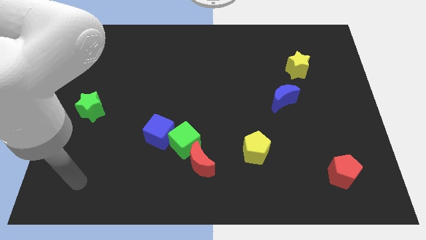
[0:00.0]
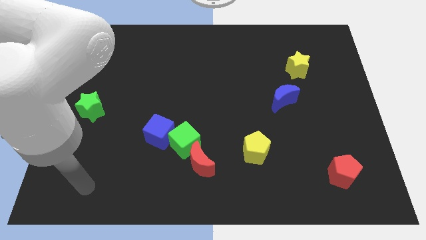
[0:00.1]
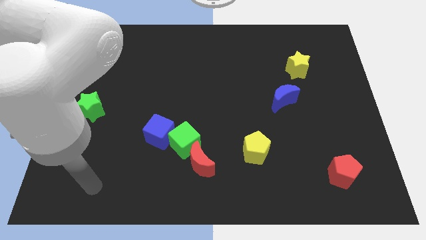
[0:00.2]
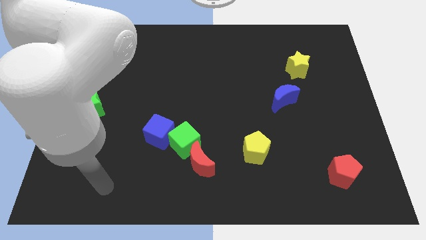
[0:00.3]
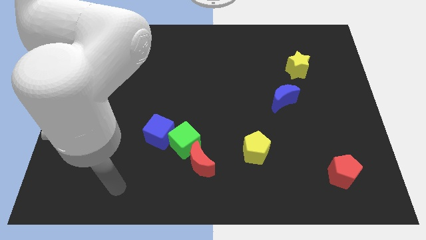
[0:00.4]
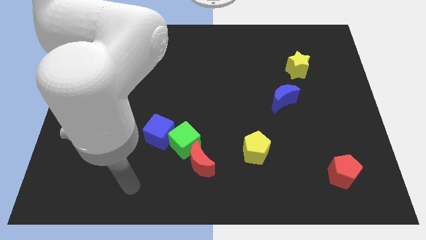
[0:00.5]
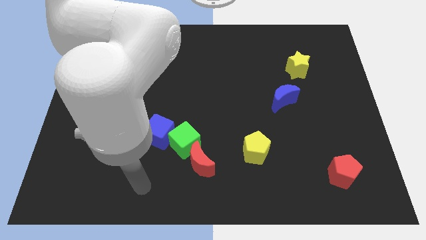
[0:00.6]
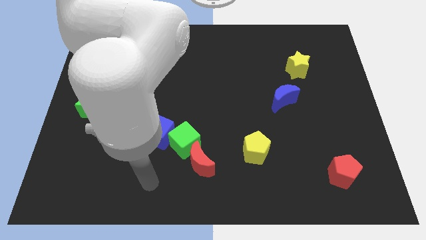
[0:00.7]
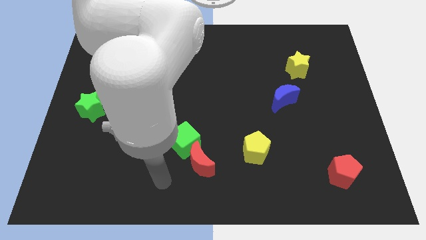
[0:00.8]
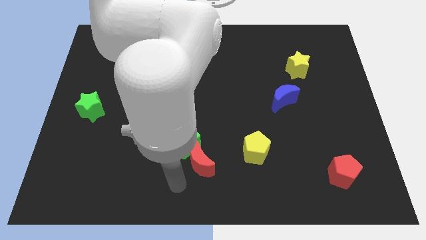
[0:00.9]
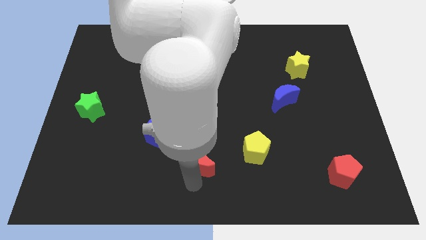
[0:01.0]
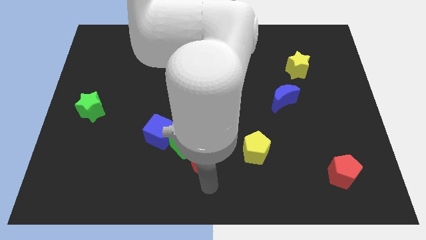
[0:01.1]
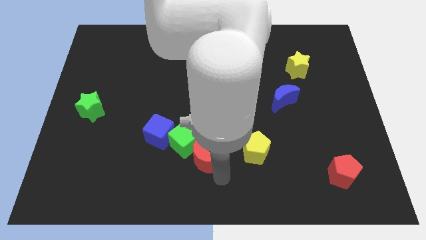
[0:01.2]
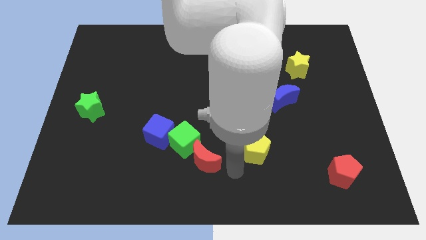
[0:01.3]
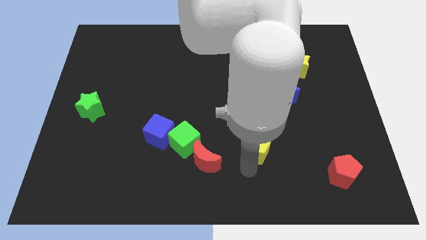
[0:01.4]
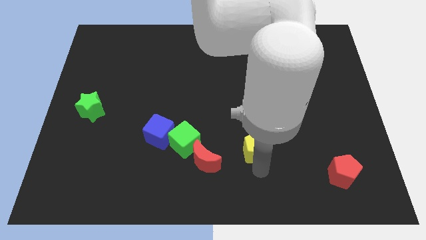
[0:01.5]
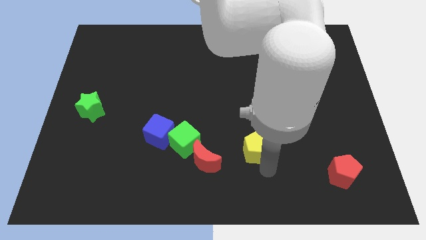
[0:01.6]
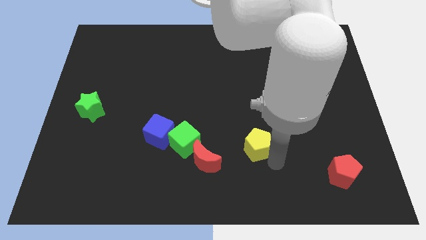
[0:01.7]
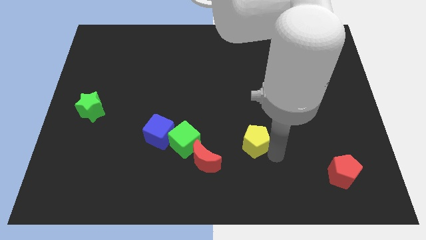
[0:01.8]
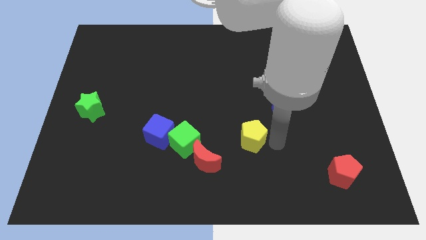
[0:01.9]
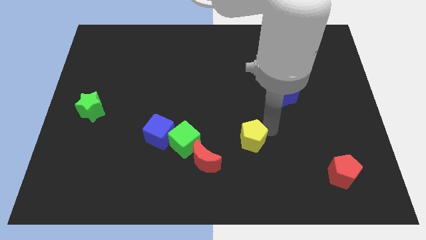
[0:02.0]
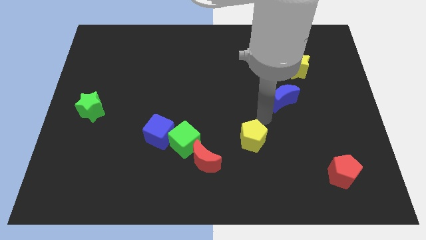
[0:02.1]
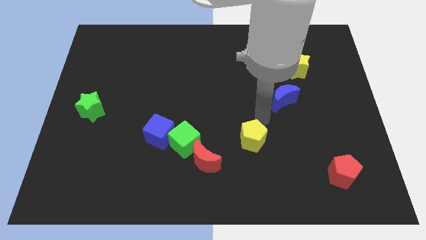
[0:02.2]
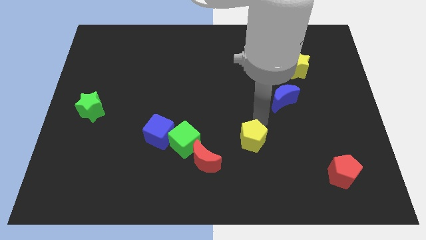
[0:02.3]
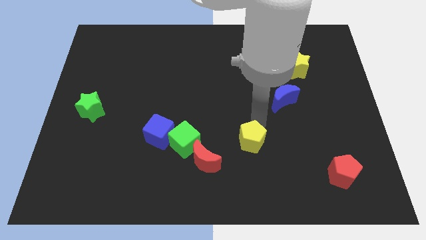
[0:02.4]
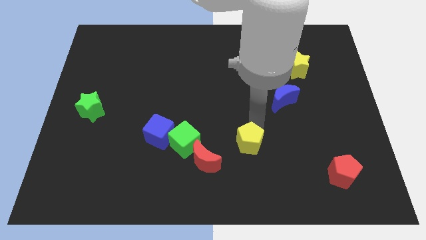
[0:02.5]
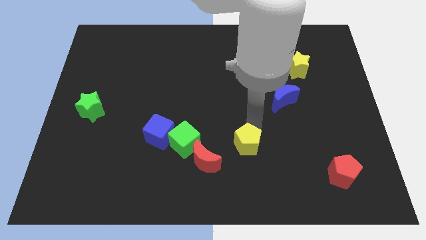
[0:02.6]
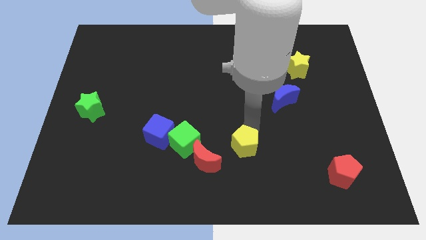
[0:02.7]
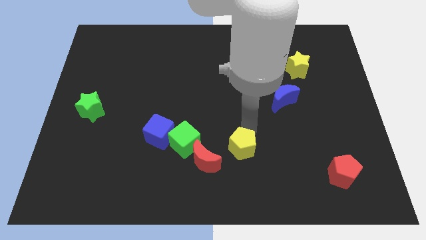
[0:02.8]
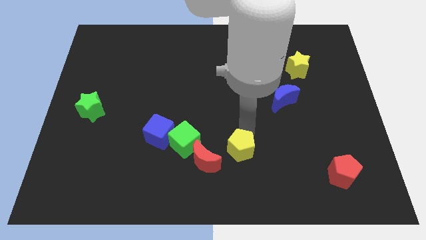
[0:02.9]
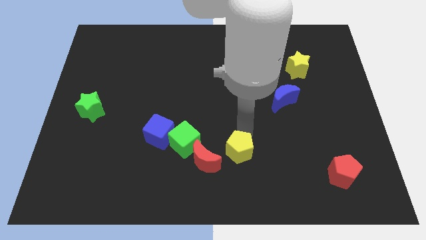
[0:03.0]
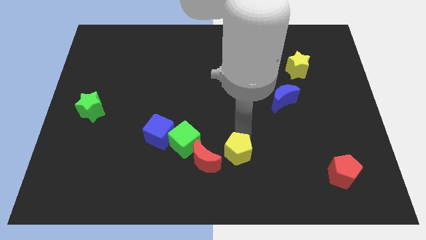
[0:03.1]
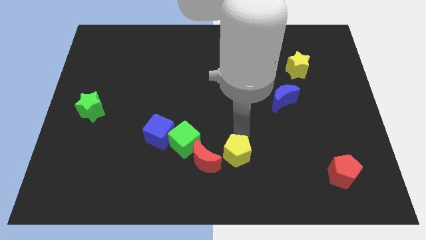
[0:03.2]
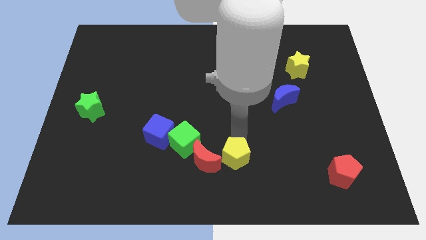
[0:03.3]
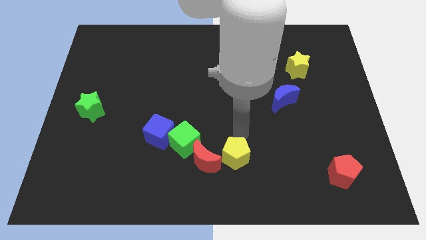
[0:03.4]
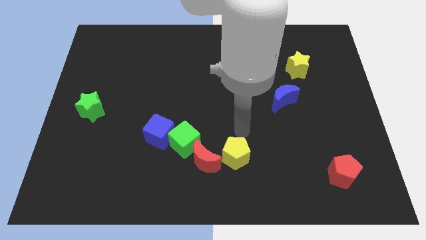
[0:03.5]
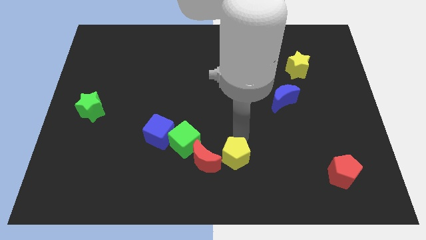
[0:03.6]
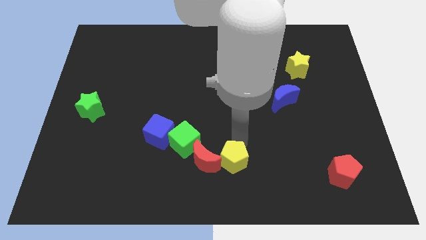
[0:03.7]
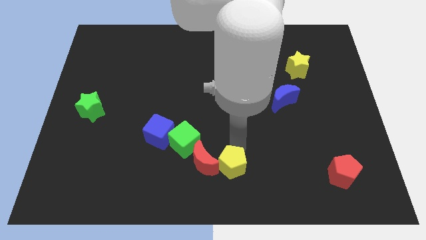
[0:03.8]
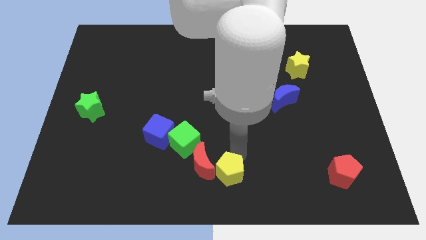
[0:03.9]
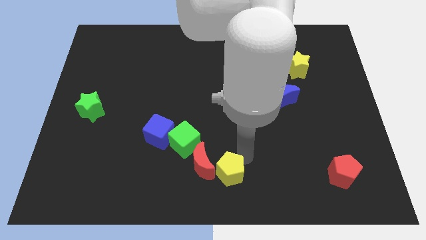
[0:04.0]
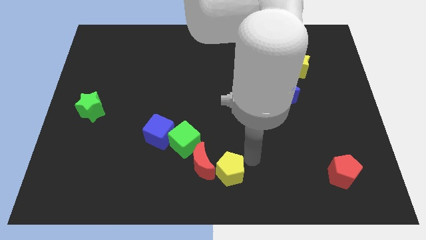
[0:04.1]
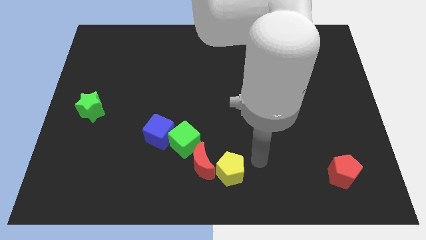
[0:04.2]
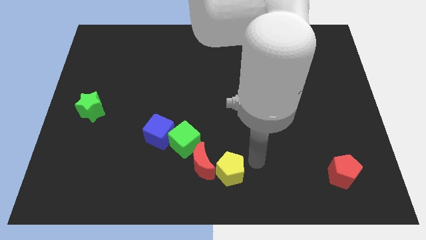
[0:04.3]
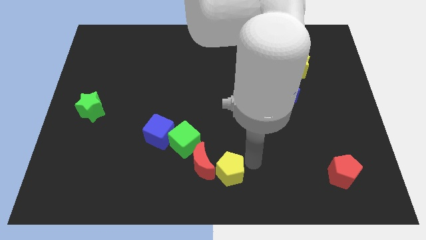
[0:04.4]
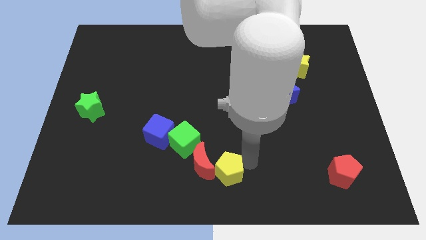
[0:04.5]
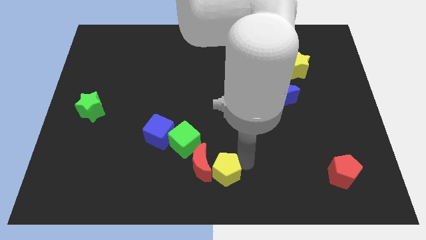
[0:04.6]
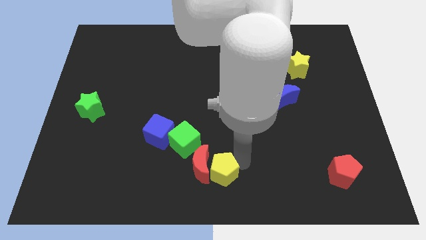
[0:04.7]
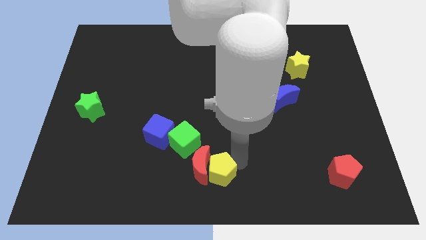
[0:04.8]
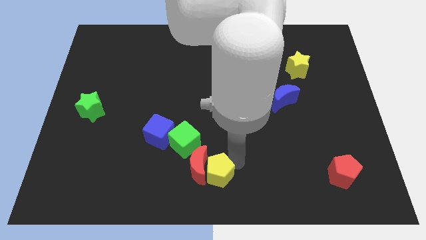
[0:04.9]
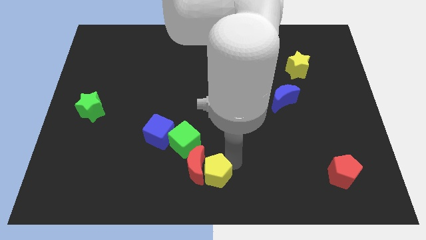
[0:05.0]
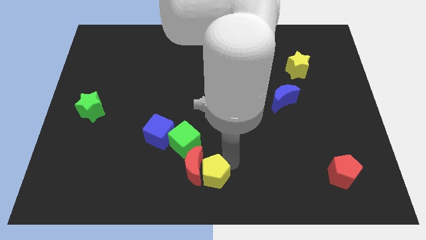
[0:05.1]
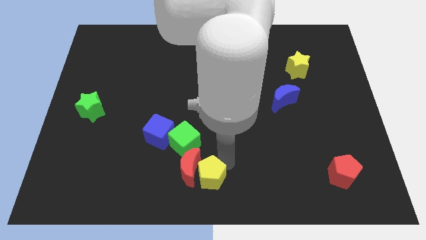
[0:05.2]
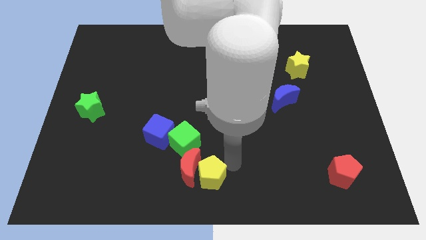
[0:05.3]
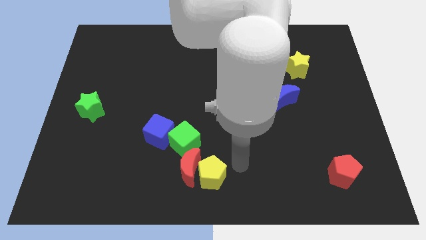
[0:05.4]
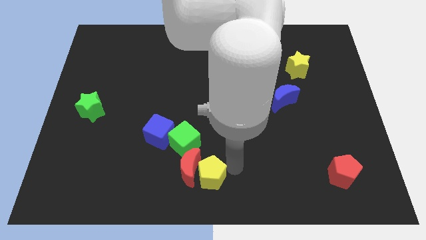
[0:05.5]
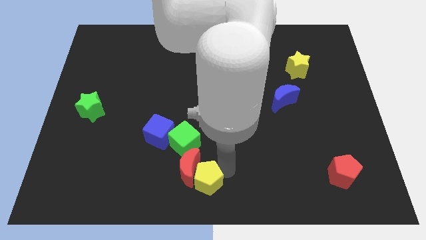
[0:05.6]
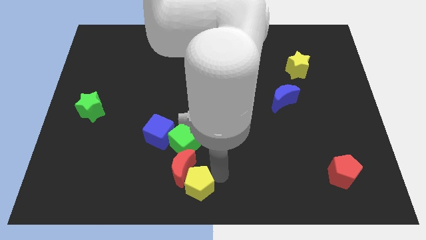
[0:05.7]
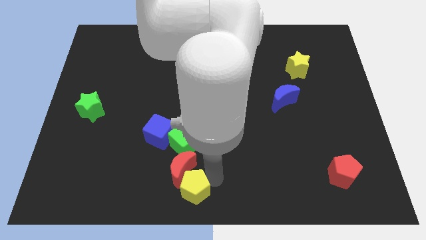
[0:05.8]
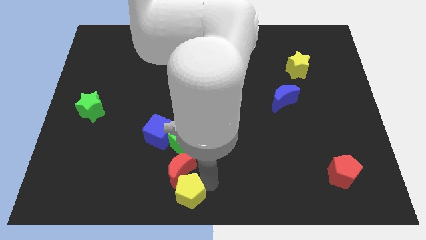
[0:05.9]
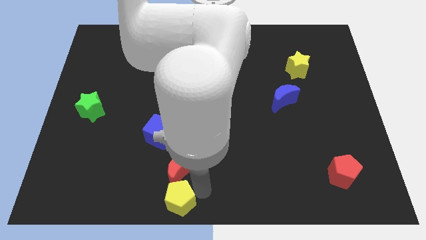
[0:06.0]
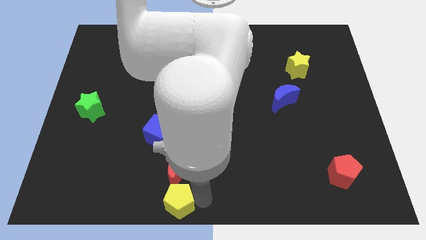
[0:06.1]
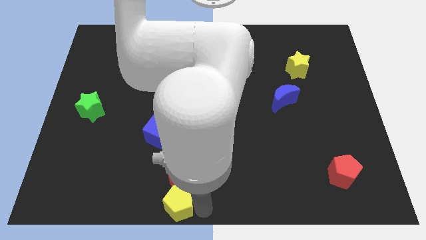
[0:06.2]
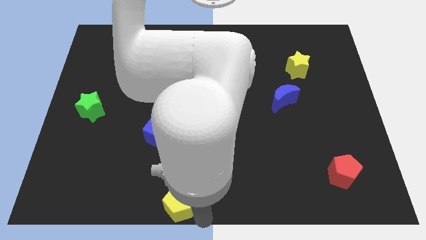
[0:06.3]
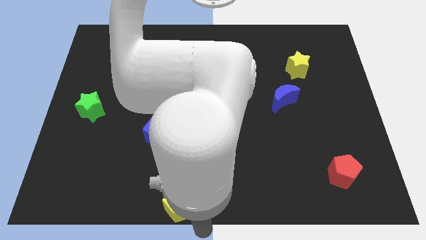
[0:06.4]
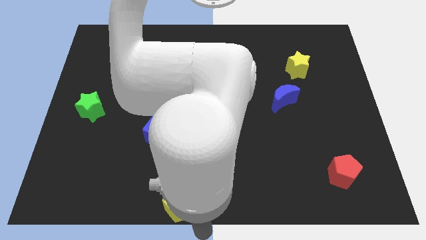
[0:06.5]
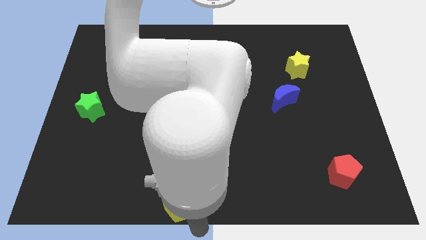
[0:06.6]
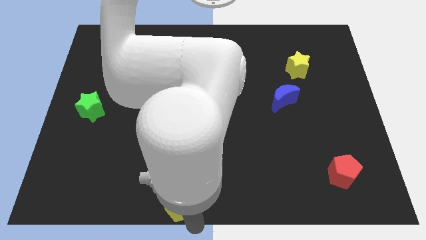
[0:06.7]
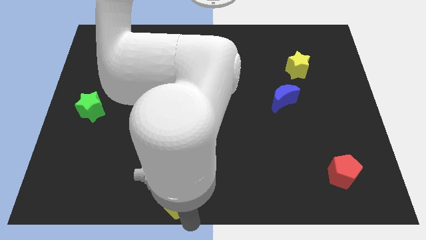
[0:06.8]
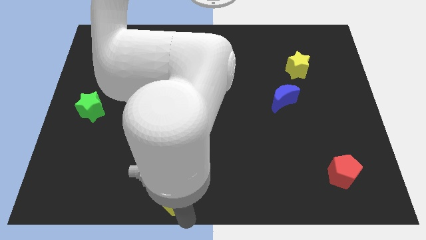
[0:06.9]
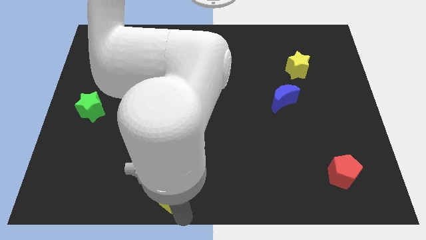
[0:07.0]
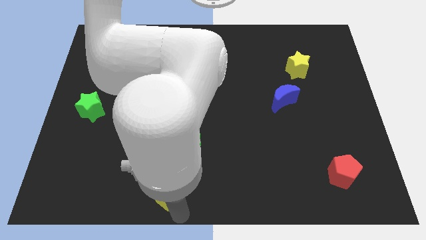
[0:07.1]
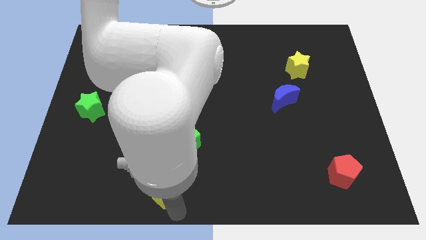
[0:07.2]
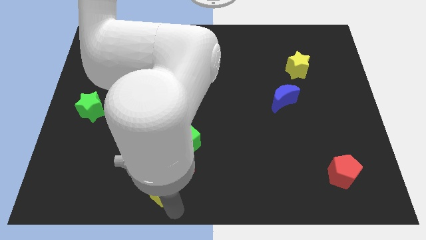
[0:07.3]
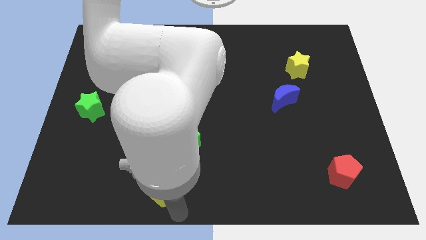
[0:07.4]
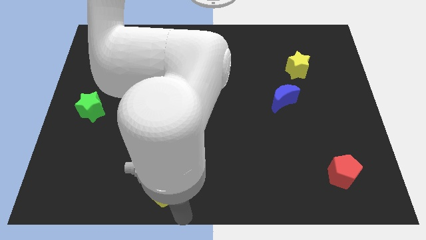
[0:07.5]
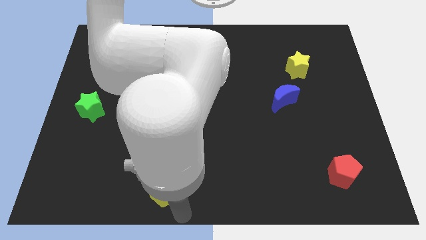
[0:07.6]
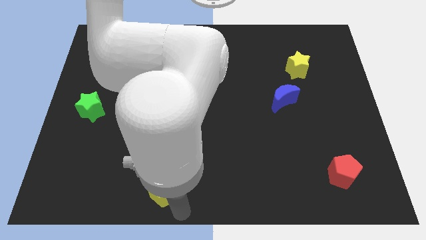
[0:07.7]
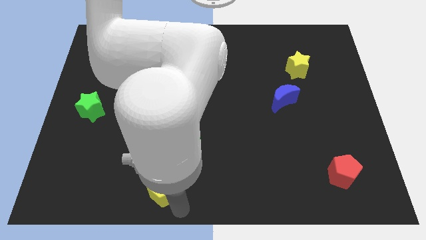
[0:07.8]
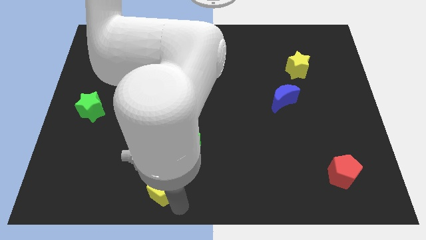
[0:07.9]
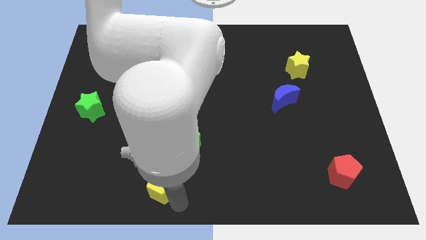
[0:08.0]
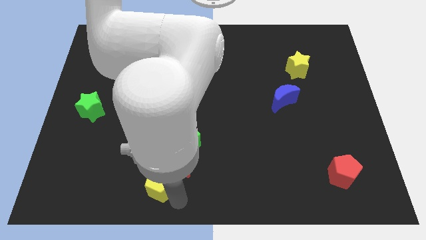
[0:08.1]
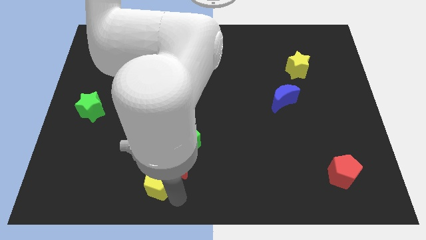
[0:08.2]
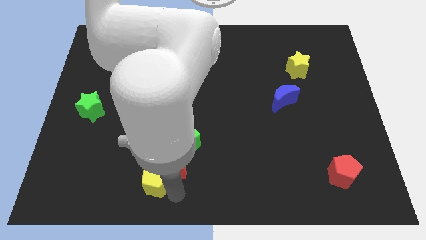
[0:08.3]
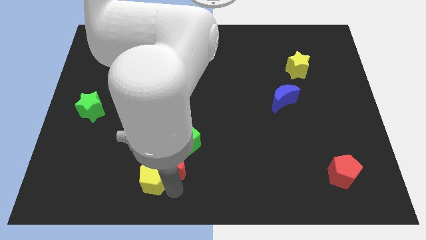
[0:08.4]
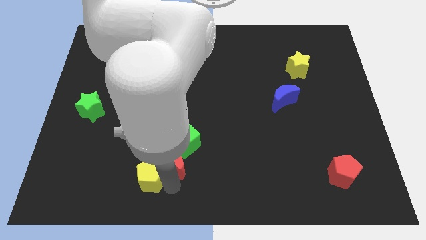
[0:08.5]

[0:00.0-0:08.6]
push the yellow pentagon to the left
